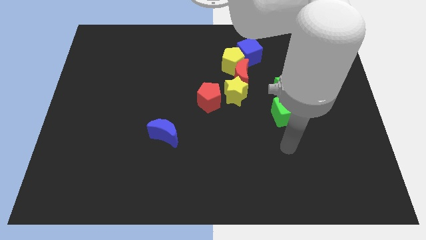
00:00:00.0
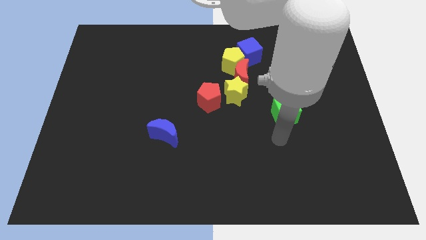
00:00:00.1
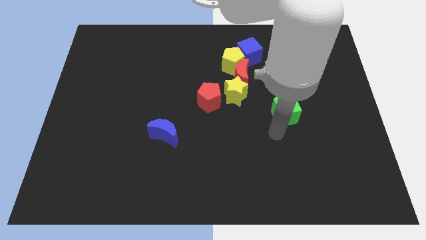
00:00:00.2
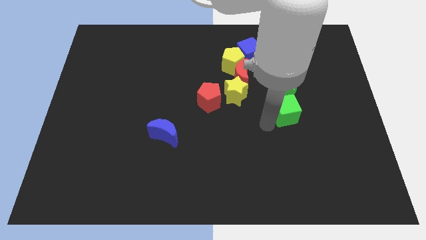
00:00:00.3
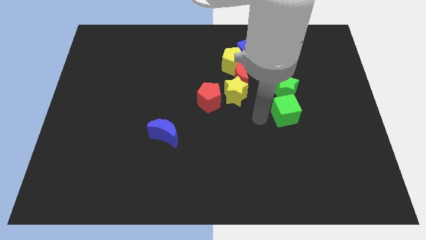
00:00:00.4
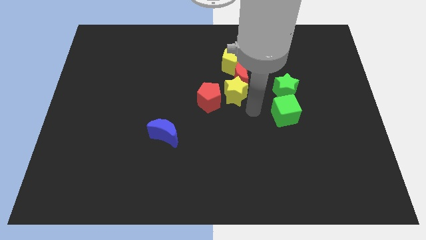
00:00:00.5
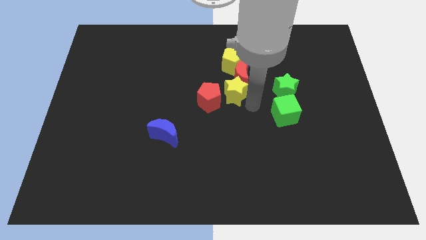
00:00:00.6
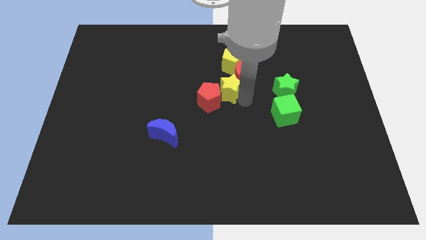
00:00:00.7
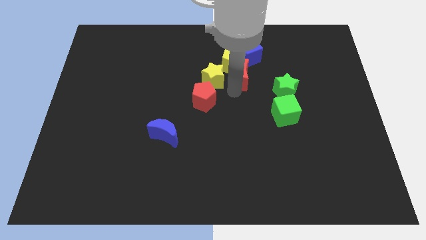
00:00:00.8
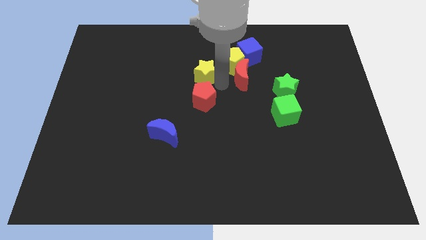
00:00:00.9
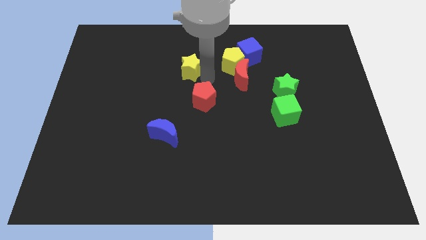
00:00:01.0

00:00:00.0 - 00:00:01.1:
separate the red pentagon from the yellow star

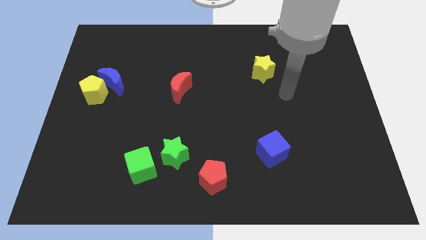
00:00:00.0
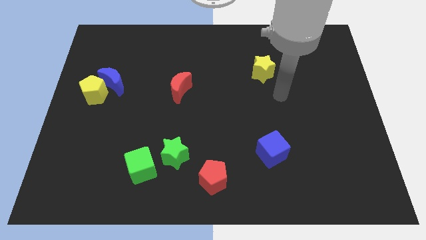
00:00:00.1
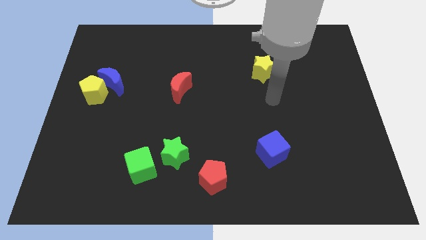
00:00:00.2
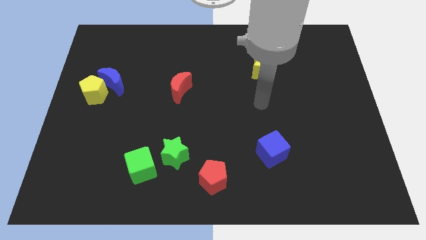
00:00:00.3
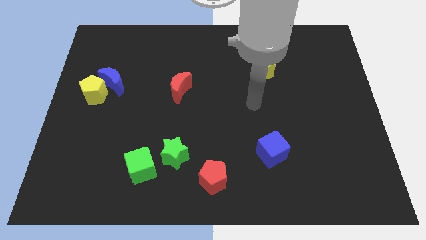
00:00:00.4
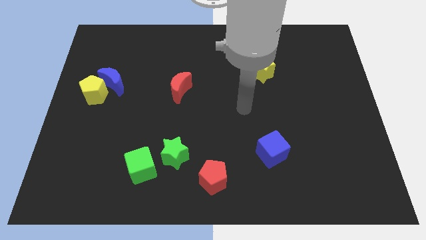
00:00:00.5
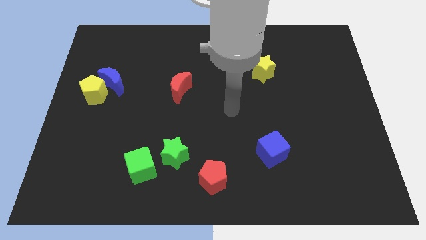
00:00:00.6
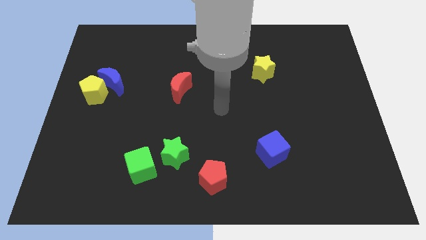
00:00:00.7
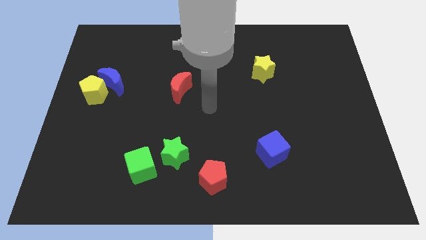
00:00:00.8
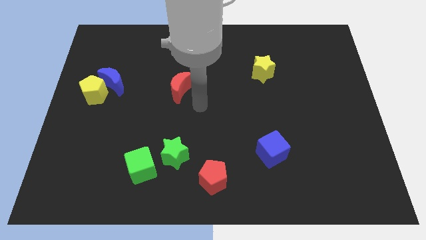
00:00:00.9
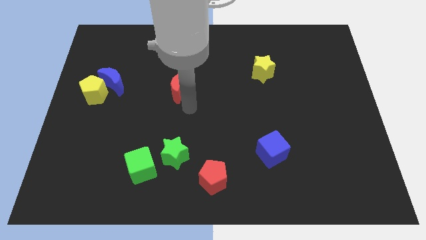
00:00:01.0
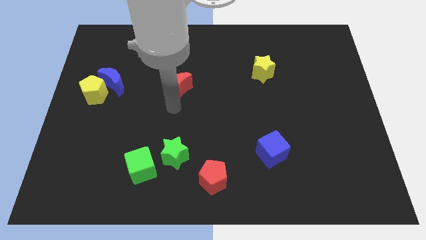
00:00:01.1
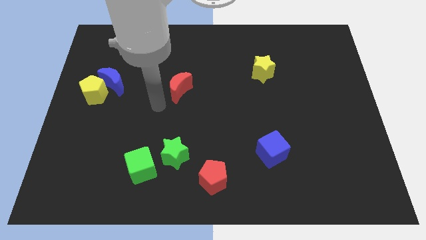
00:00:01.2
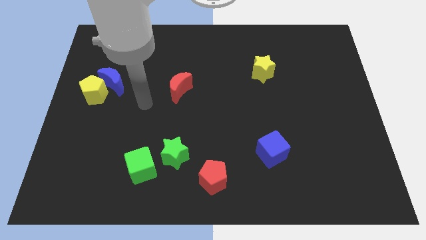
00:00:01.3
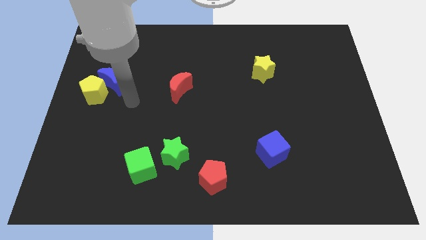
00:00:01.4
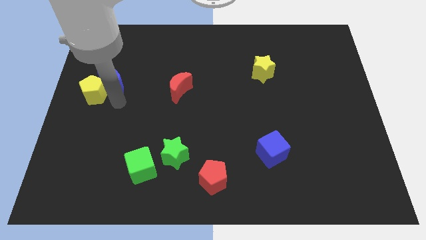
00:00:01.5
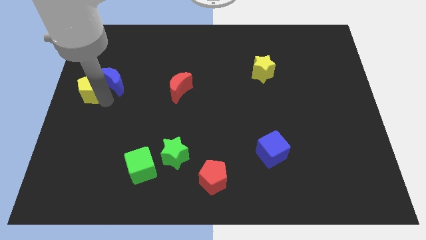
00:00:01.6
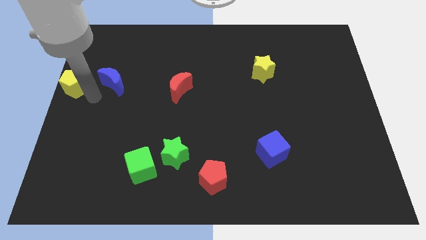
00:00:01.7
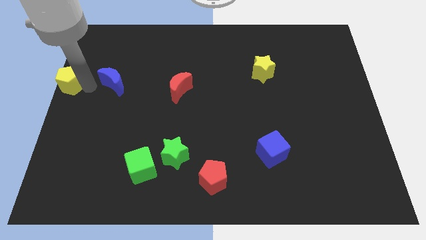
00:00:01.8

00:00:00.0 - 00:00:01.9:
pull the blue moon apart from the yellow pentagon

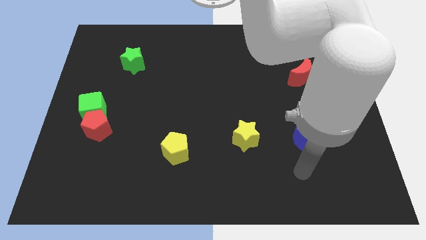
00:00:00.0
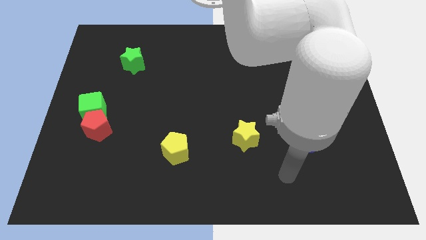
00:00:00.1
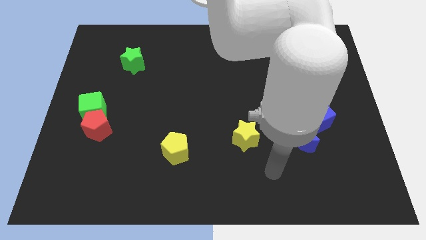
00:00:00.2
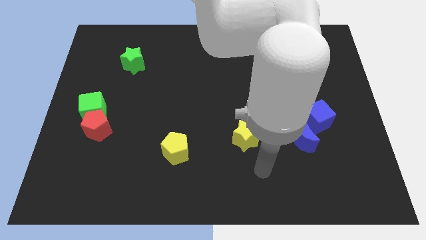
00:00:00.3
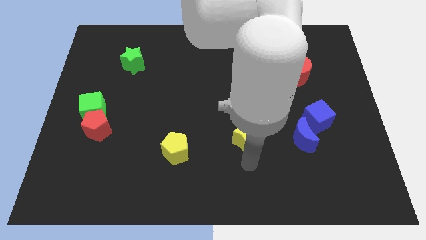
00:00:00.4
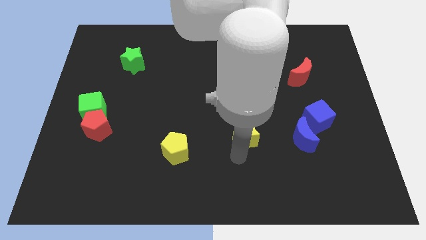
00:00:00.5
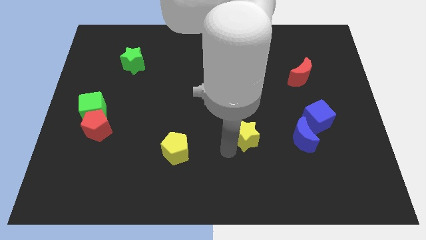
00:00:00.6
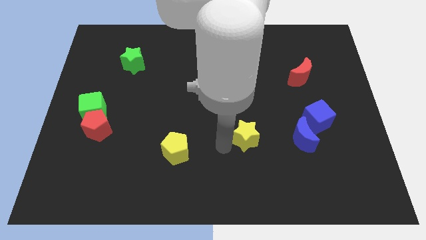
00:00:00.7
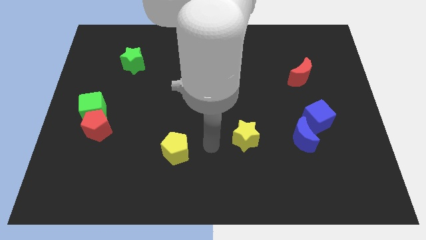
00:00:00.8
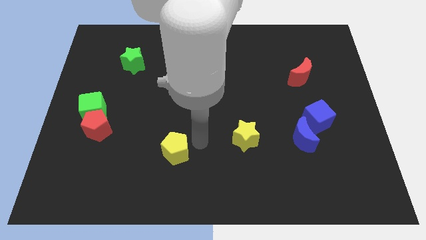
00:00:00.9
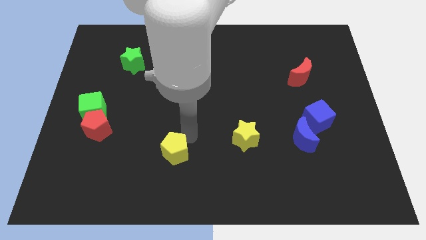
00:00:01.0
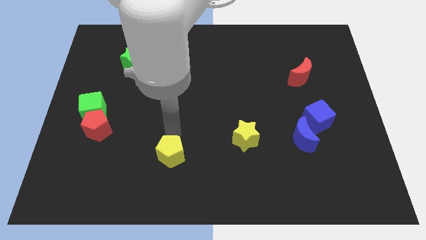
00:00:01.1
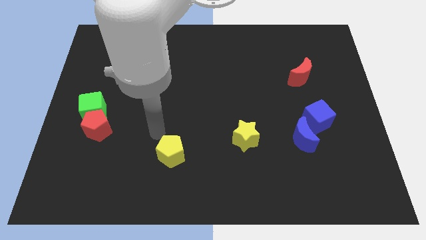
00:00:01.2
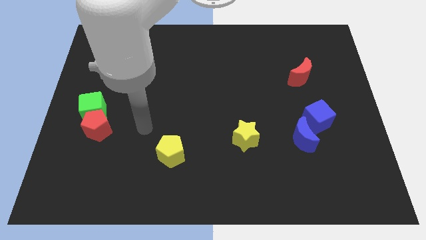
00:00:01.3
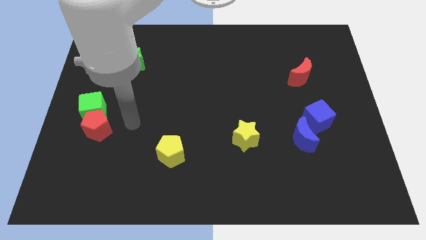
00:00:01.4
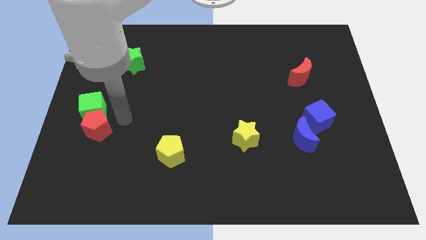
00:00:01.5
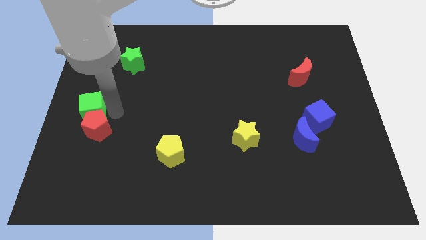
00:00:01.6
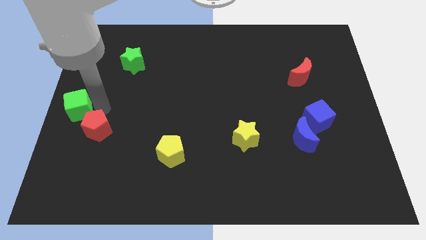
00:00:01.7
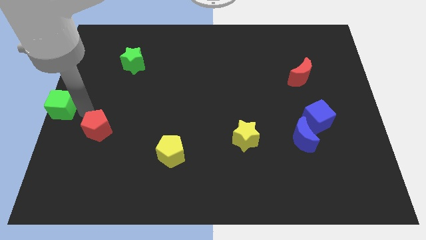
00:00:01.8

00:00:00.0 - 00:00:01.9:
move the red pentagon away from the green cube

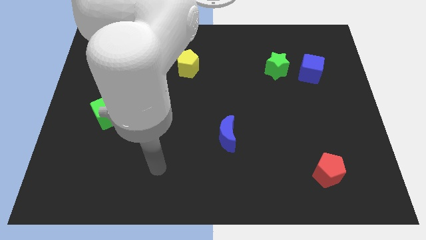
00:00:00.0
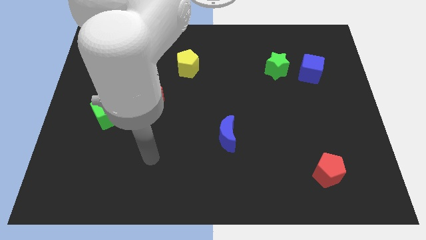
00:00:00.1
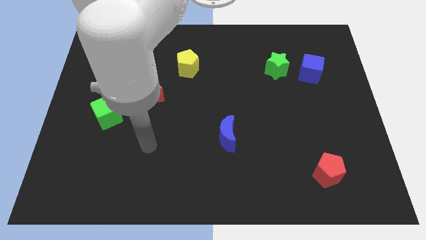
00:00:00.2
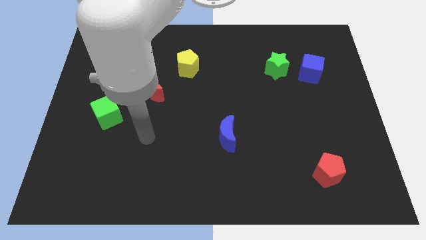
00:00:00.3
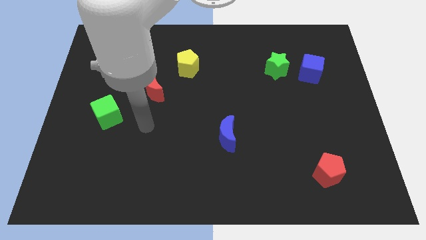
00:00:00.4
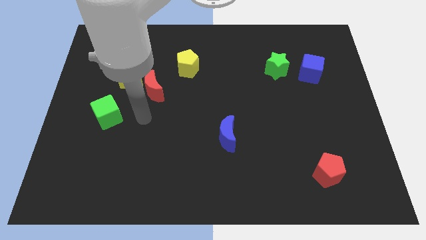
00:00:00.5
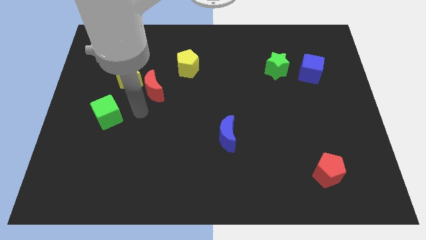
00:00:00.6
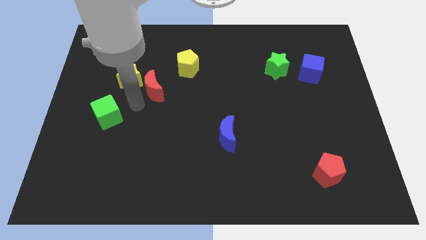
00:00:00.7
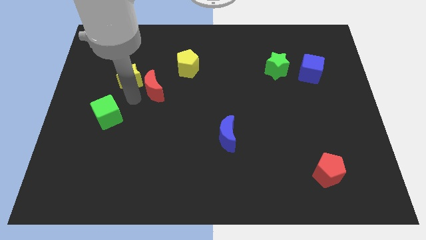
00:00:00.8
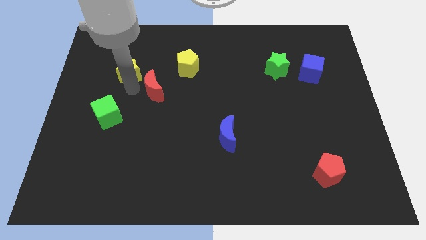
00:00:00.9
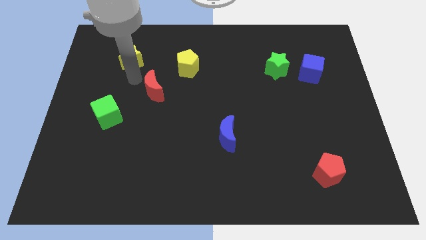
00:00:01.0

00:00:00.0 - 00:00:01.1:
separate the red moon from the yellow star

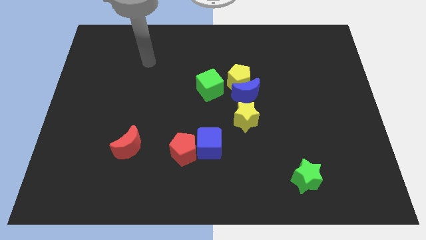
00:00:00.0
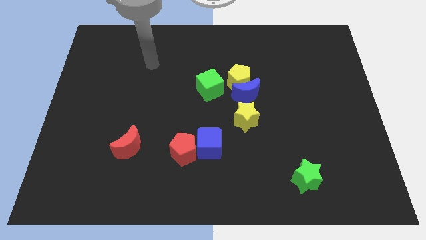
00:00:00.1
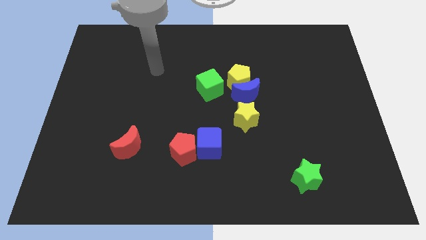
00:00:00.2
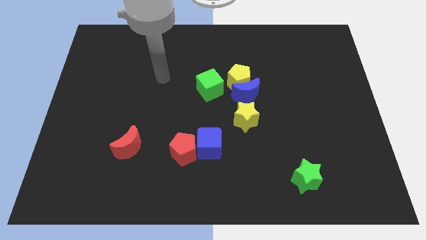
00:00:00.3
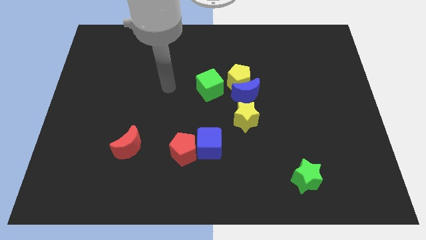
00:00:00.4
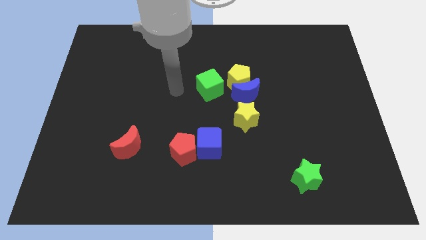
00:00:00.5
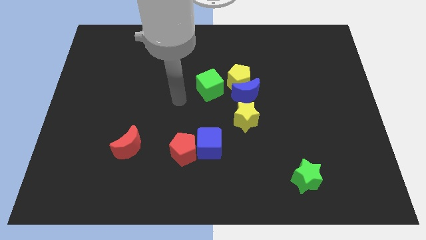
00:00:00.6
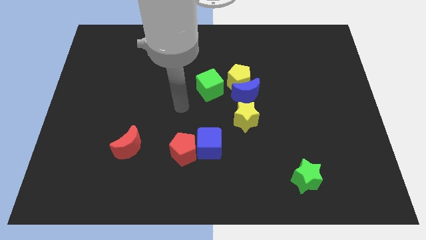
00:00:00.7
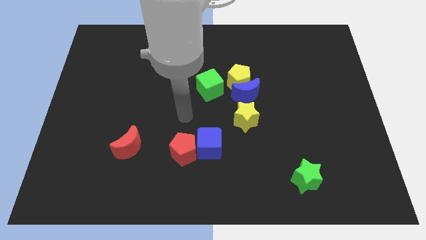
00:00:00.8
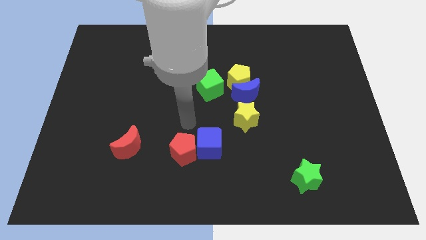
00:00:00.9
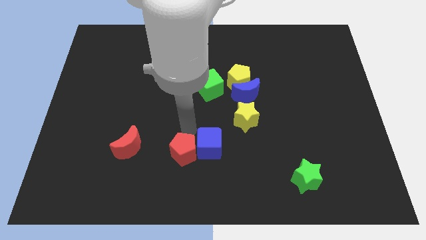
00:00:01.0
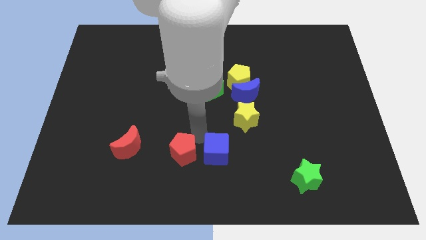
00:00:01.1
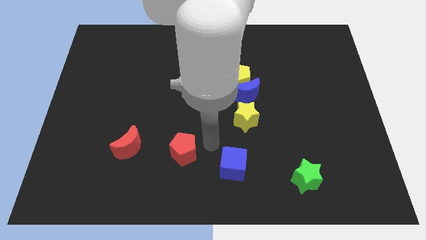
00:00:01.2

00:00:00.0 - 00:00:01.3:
separate the red pentagon from the blue cube

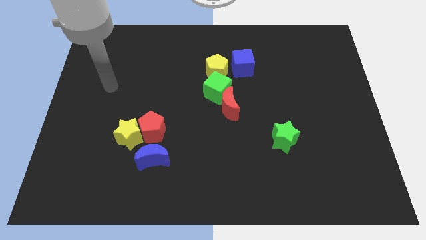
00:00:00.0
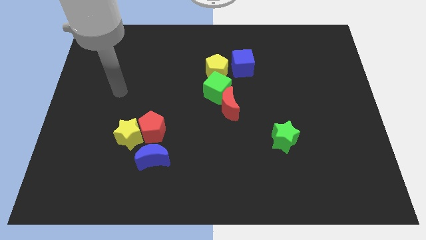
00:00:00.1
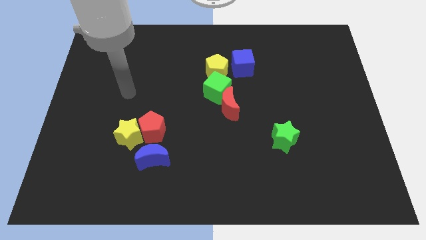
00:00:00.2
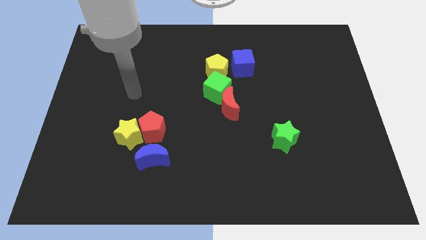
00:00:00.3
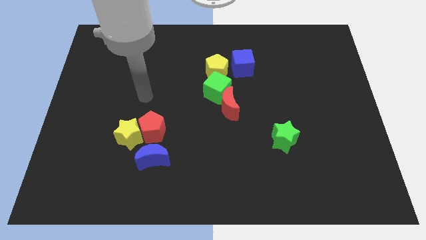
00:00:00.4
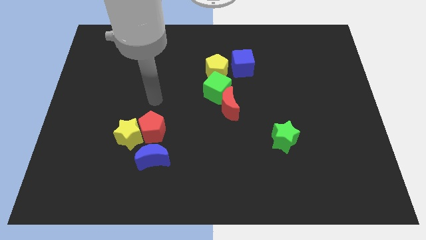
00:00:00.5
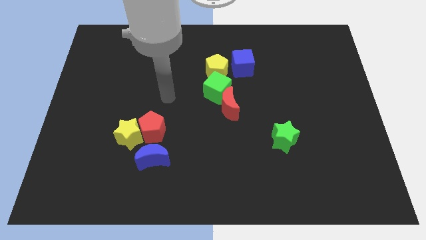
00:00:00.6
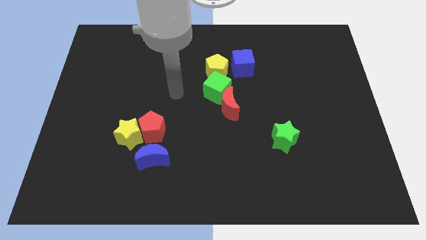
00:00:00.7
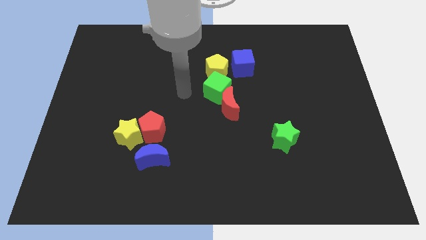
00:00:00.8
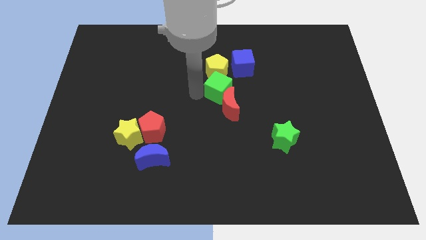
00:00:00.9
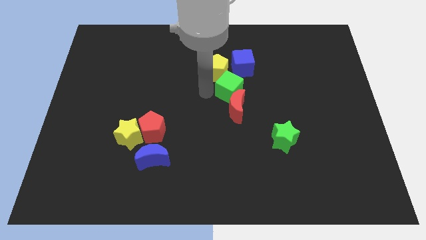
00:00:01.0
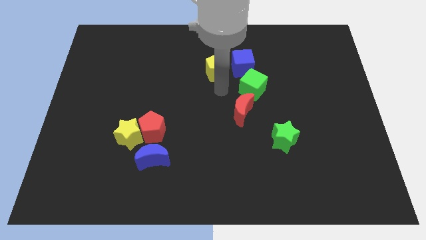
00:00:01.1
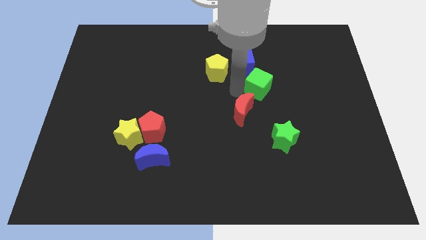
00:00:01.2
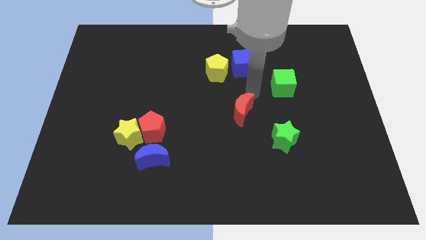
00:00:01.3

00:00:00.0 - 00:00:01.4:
pull the red moon apart from the green cube

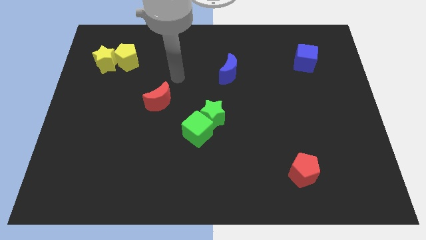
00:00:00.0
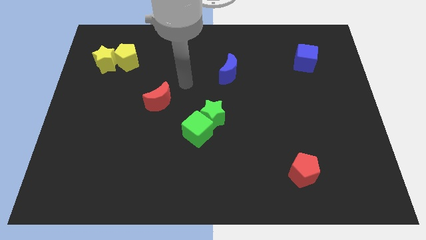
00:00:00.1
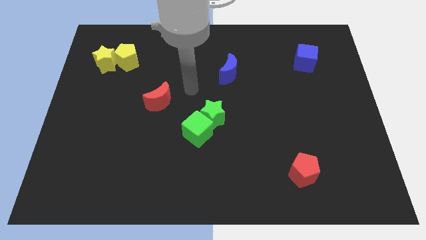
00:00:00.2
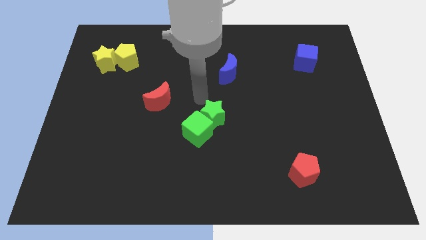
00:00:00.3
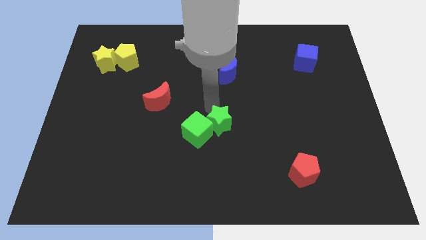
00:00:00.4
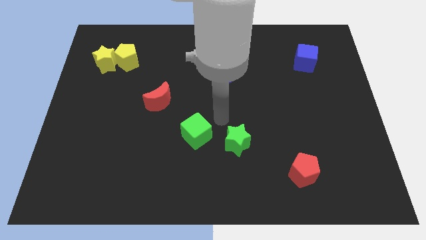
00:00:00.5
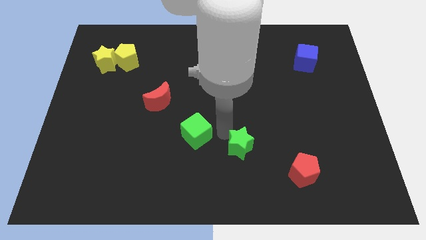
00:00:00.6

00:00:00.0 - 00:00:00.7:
pull the green cube apart from the green star
